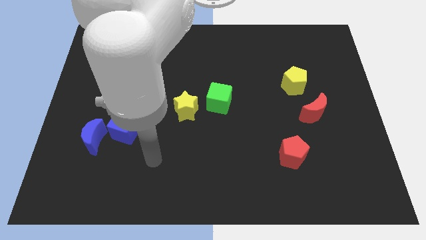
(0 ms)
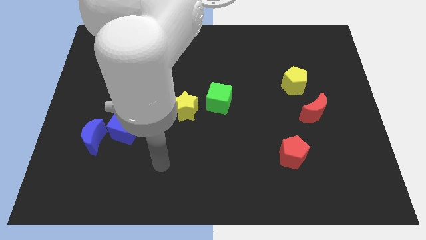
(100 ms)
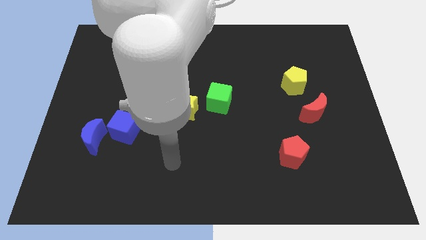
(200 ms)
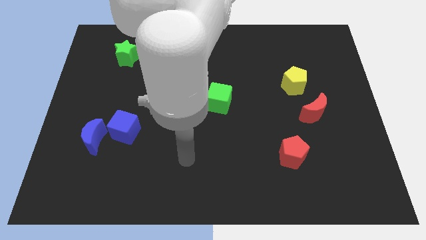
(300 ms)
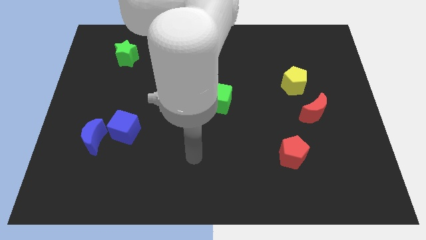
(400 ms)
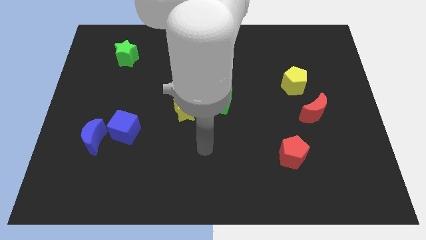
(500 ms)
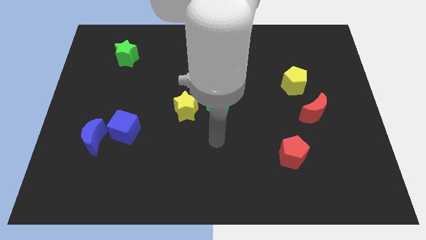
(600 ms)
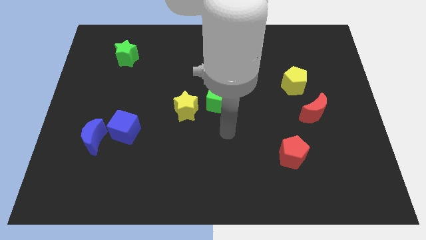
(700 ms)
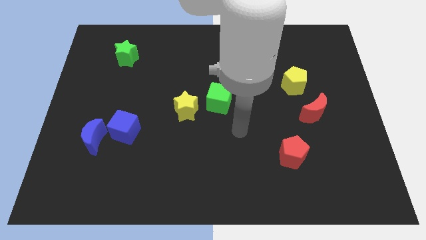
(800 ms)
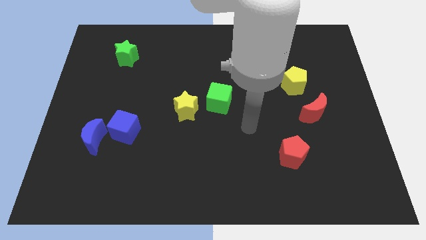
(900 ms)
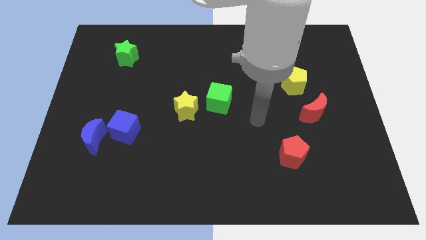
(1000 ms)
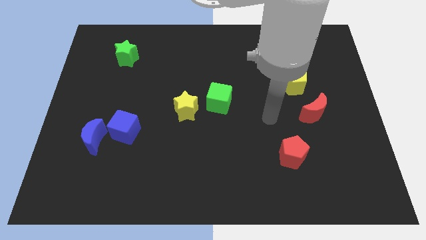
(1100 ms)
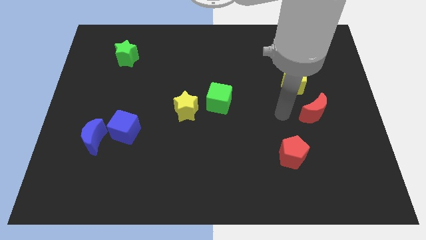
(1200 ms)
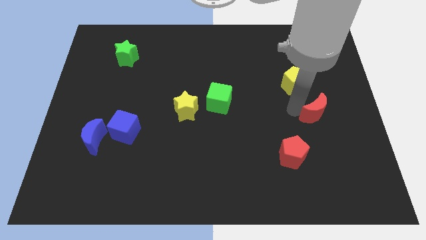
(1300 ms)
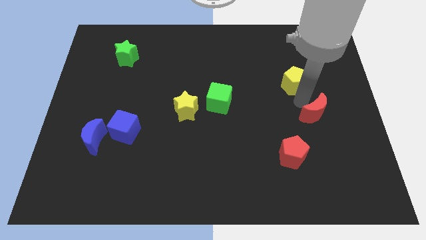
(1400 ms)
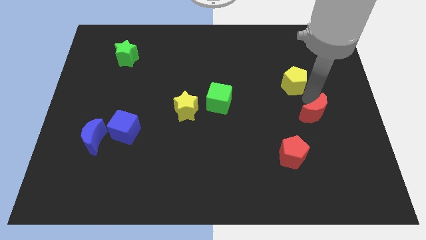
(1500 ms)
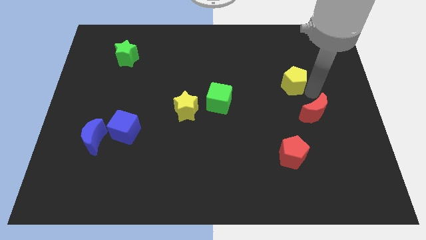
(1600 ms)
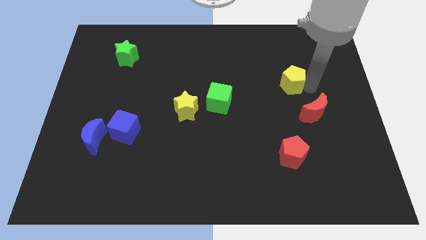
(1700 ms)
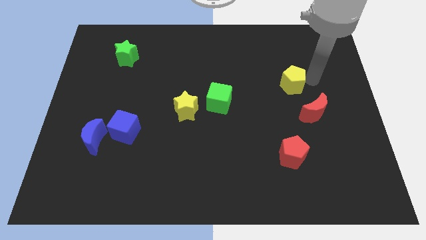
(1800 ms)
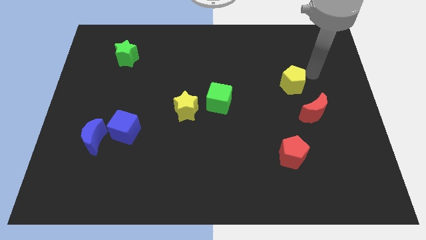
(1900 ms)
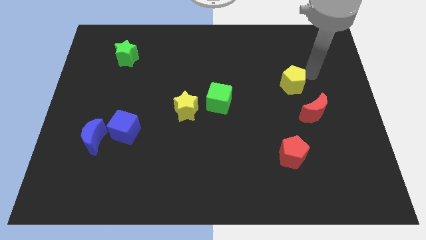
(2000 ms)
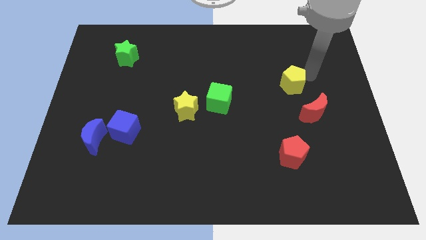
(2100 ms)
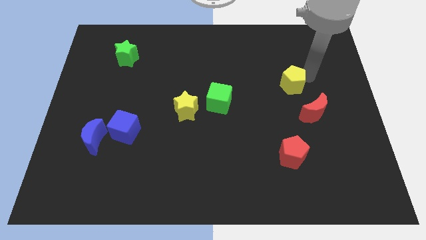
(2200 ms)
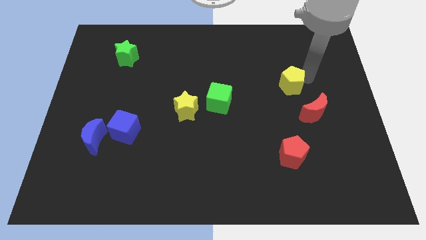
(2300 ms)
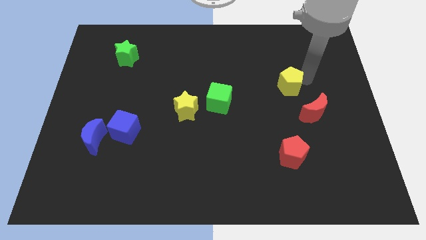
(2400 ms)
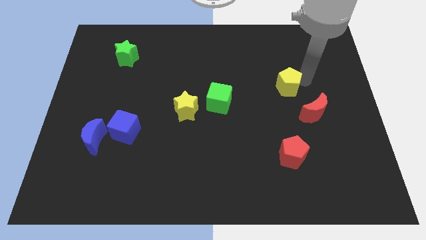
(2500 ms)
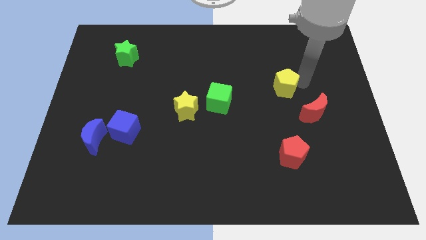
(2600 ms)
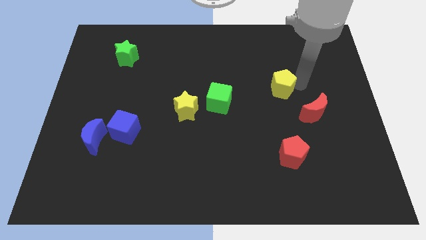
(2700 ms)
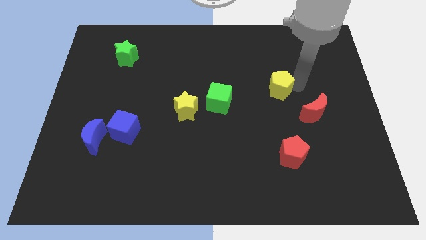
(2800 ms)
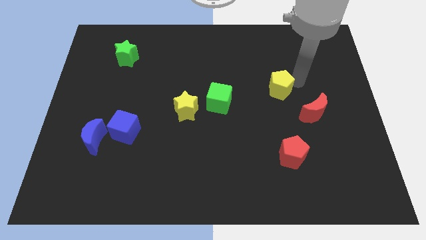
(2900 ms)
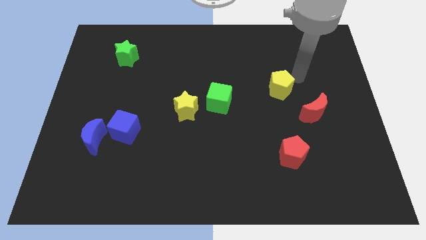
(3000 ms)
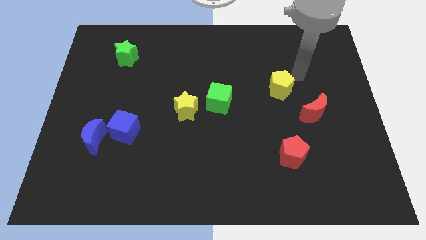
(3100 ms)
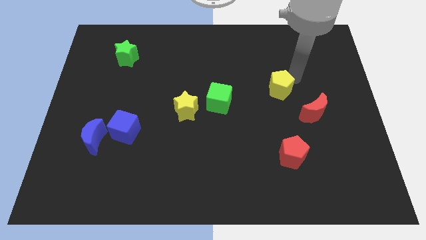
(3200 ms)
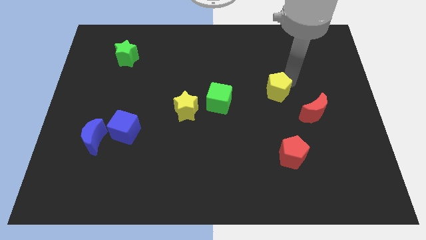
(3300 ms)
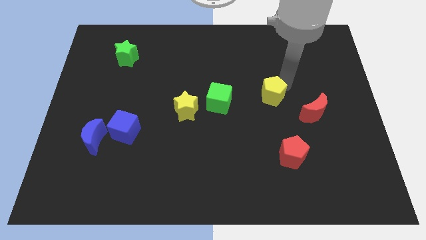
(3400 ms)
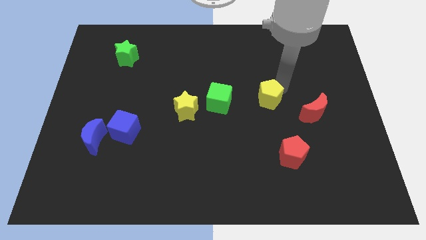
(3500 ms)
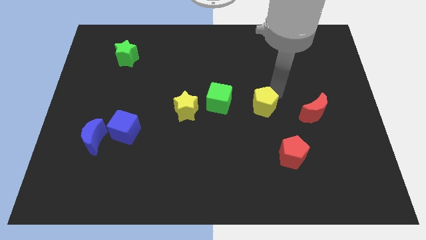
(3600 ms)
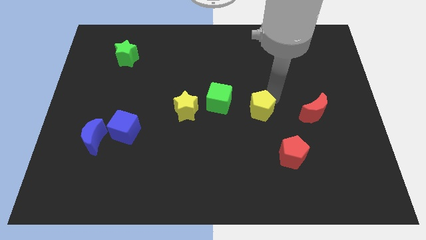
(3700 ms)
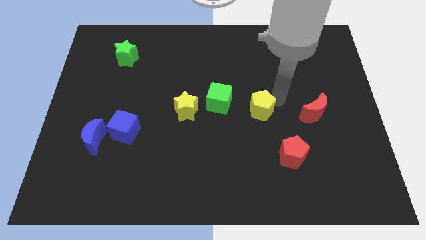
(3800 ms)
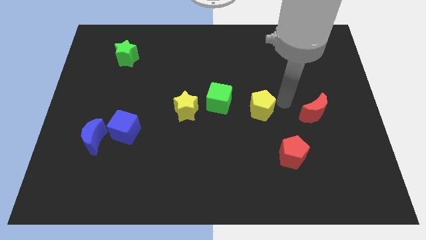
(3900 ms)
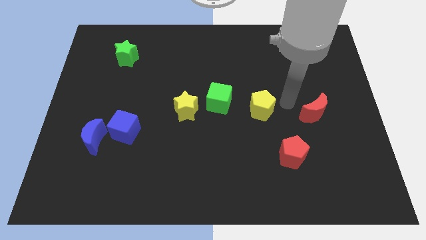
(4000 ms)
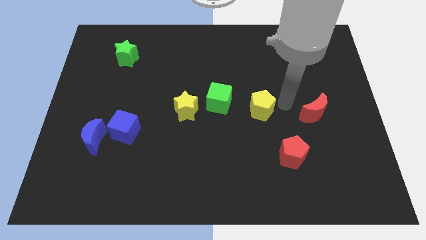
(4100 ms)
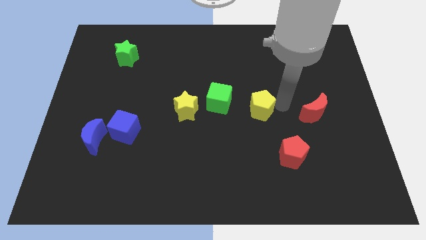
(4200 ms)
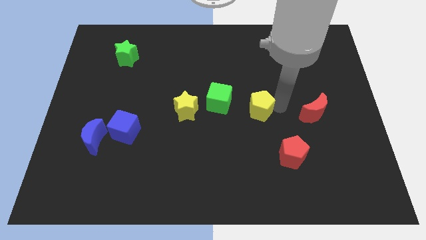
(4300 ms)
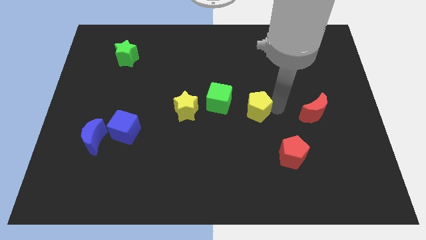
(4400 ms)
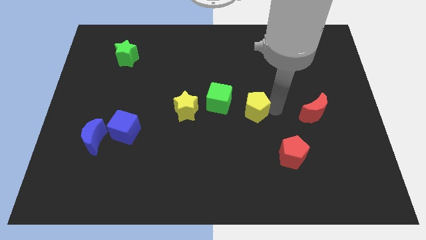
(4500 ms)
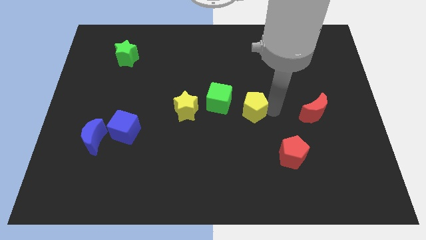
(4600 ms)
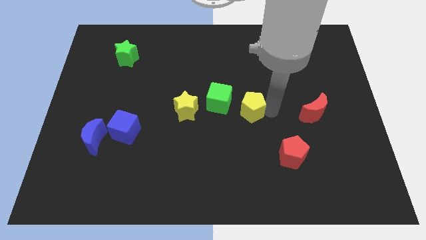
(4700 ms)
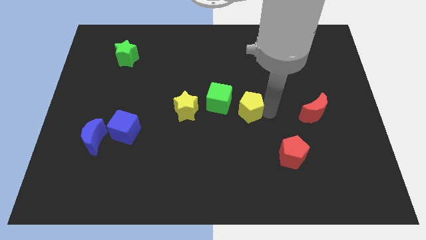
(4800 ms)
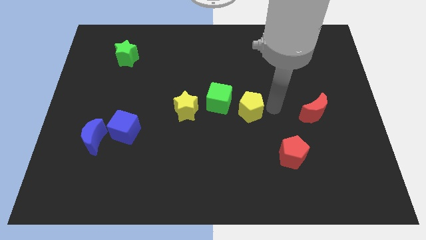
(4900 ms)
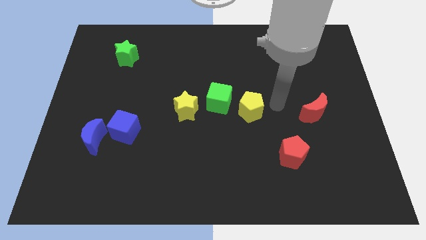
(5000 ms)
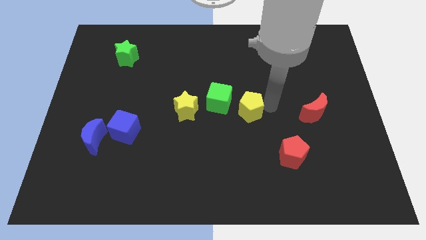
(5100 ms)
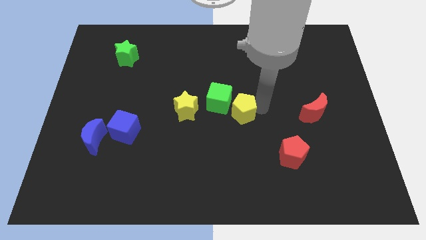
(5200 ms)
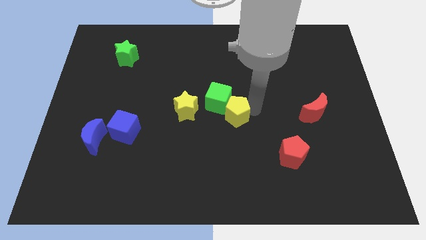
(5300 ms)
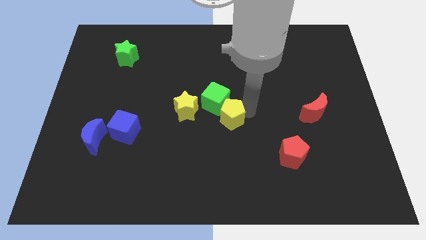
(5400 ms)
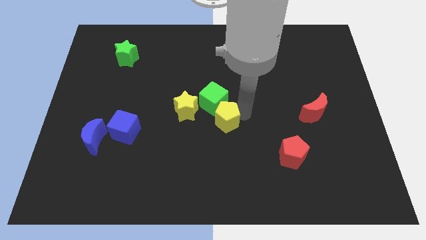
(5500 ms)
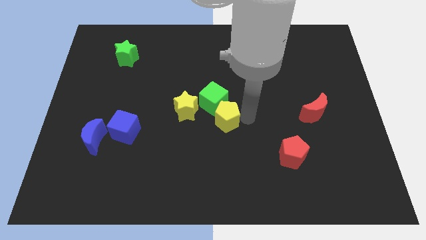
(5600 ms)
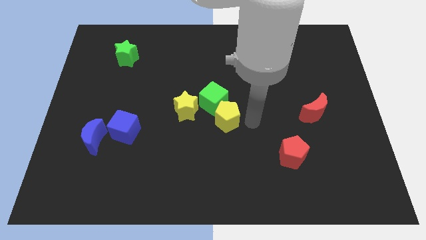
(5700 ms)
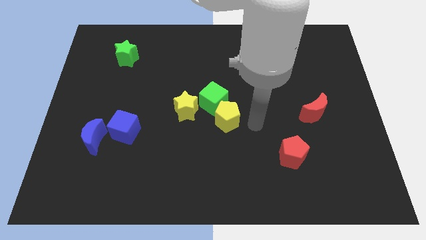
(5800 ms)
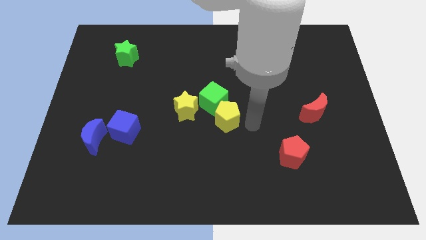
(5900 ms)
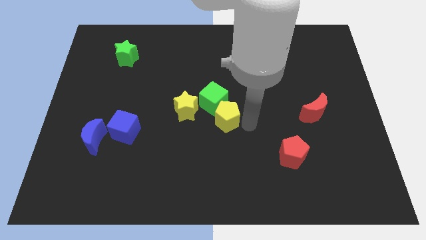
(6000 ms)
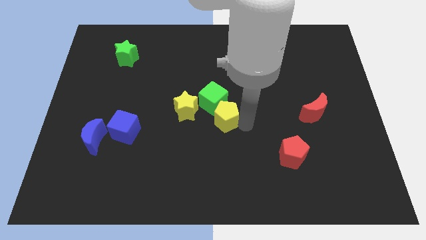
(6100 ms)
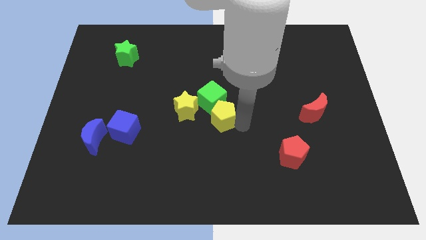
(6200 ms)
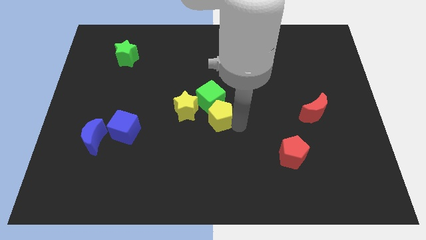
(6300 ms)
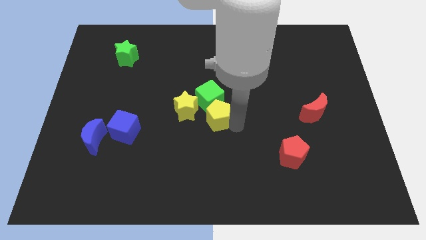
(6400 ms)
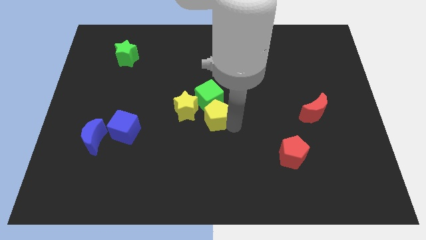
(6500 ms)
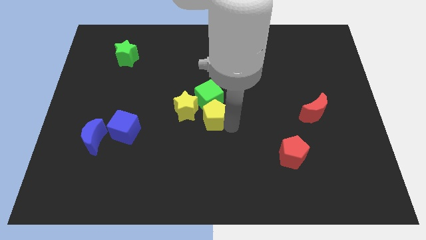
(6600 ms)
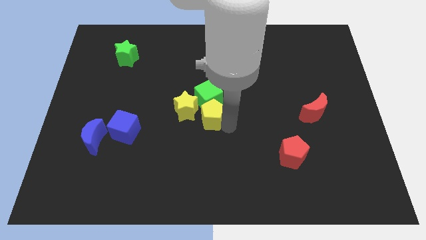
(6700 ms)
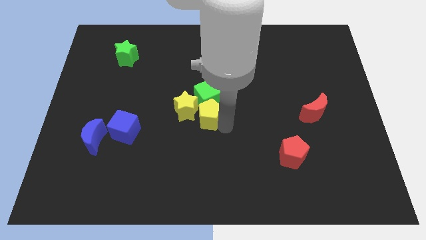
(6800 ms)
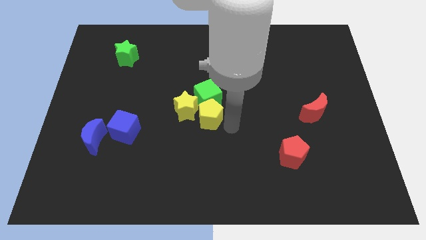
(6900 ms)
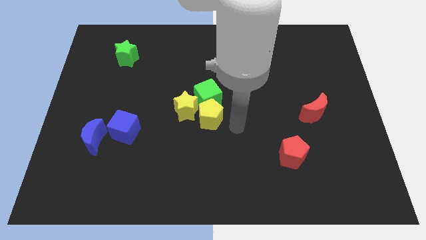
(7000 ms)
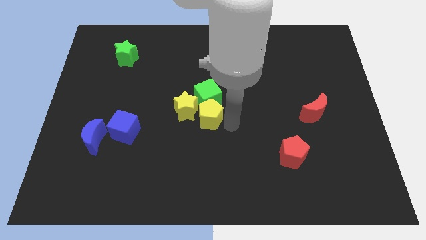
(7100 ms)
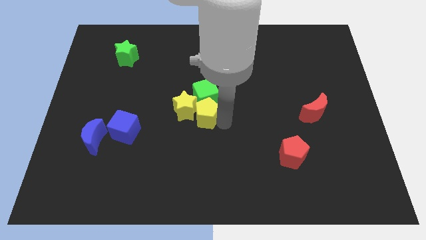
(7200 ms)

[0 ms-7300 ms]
slide the yellow pentagon to the yellow star

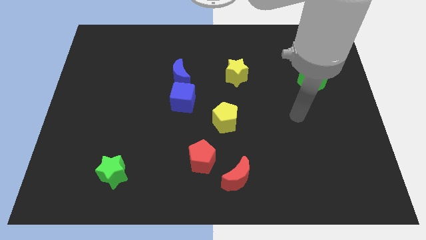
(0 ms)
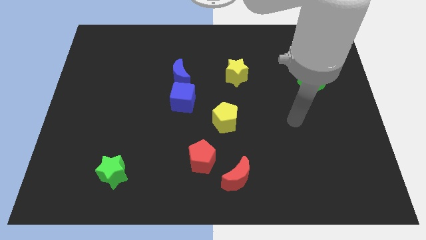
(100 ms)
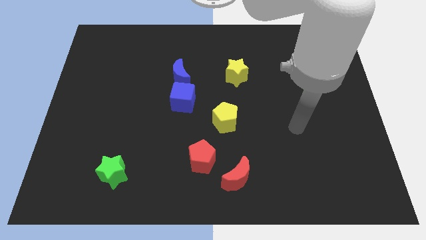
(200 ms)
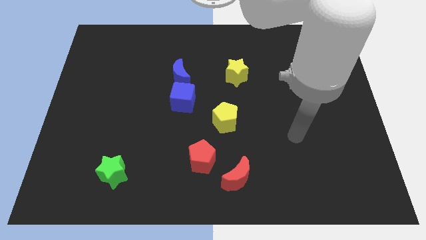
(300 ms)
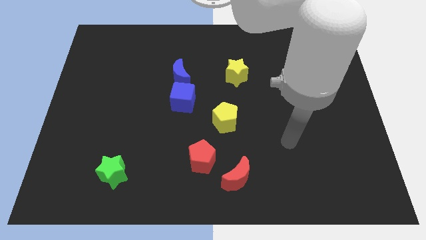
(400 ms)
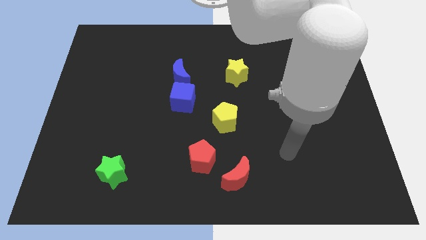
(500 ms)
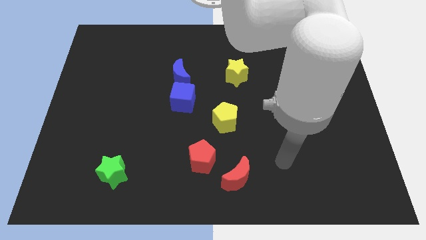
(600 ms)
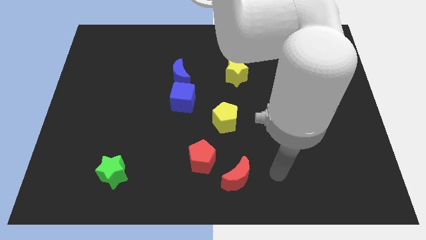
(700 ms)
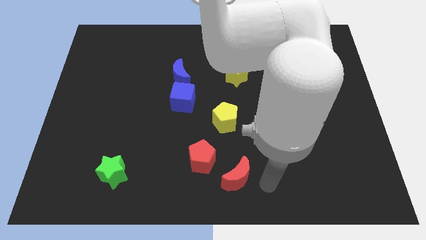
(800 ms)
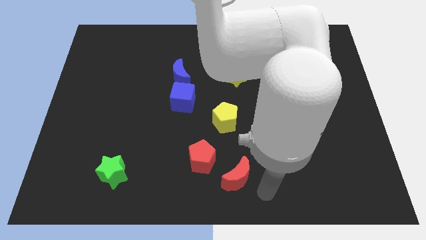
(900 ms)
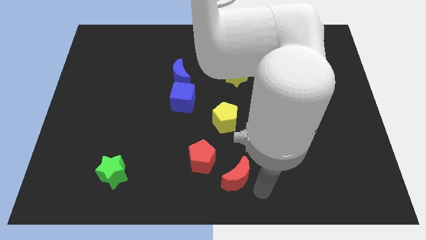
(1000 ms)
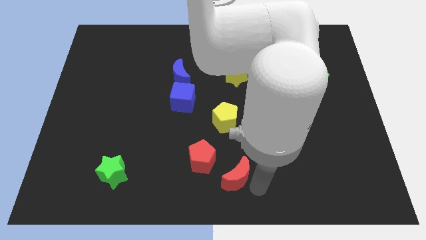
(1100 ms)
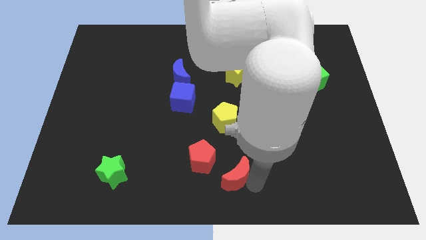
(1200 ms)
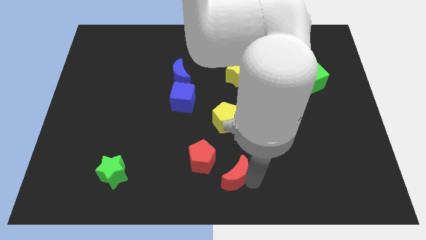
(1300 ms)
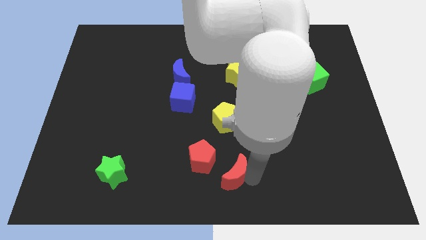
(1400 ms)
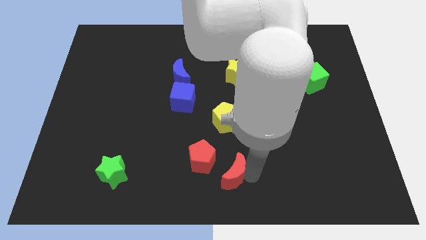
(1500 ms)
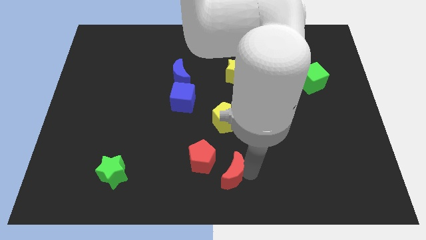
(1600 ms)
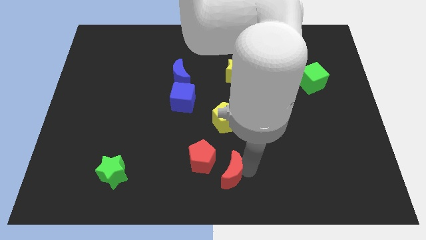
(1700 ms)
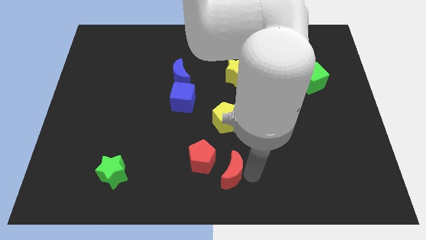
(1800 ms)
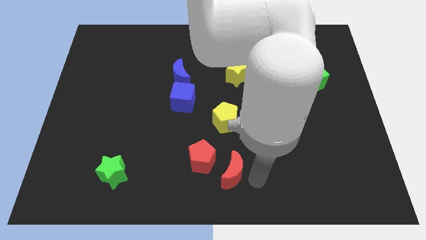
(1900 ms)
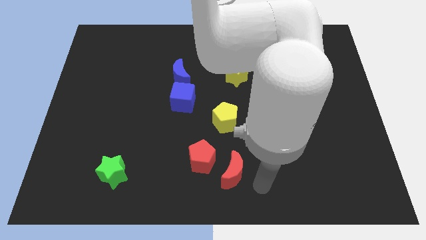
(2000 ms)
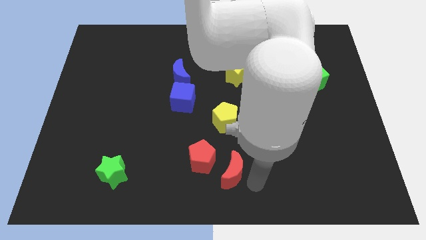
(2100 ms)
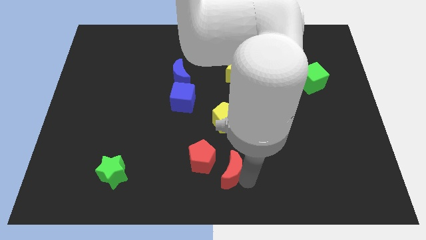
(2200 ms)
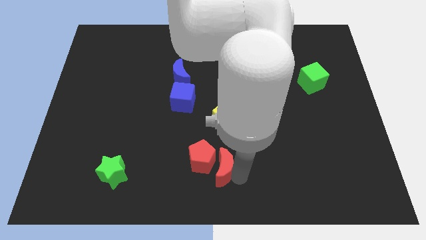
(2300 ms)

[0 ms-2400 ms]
slide the red moon next to the red pentagon
